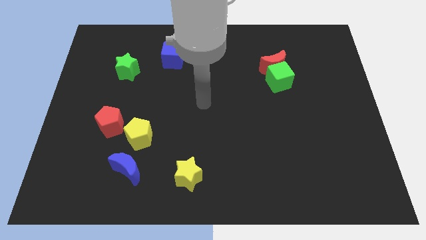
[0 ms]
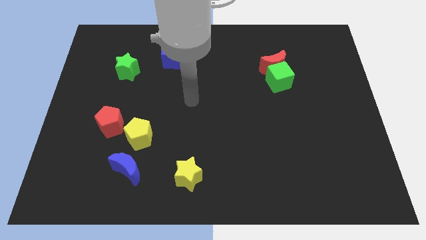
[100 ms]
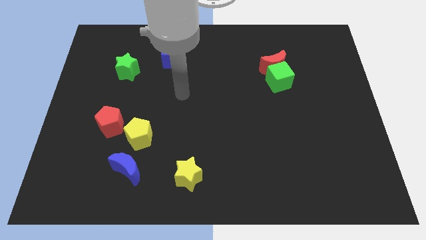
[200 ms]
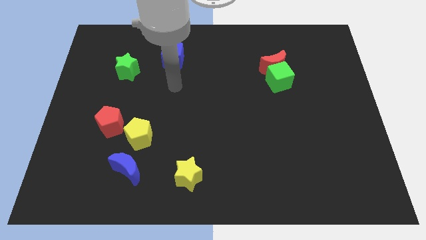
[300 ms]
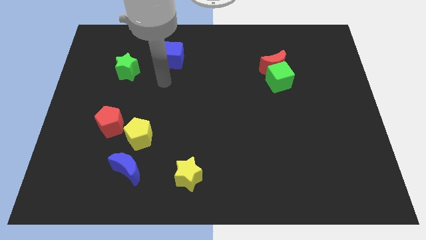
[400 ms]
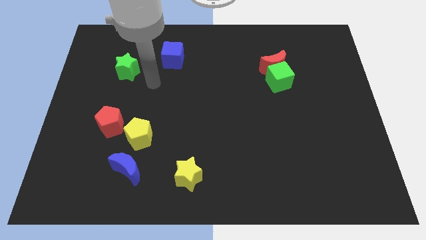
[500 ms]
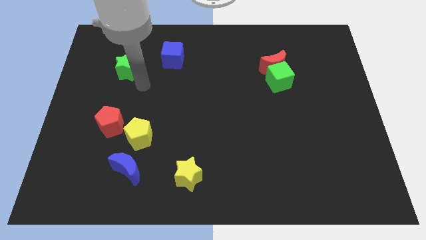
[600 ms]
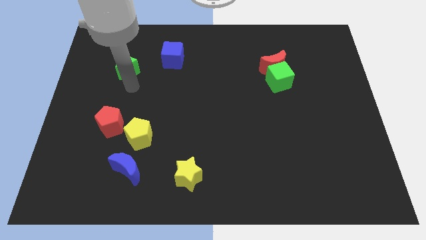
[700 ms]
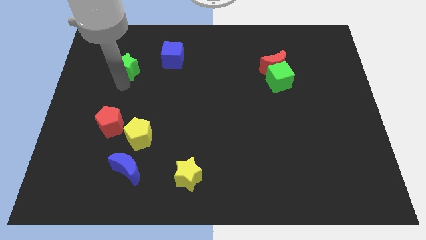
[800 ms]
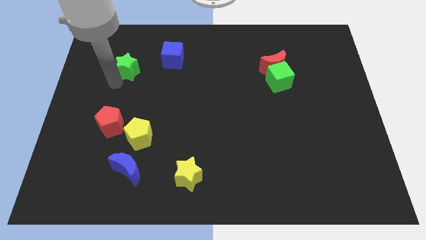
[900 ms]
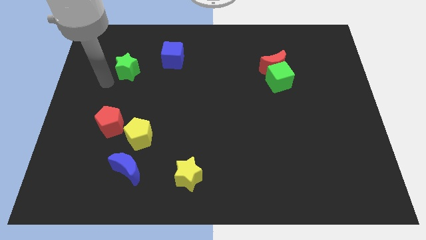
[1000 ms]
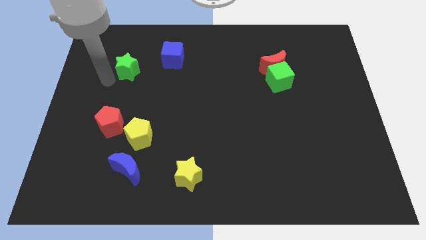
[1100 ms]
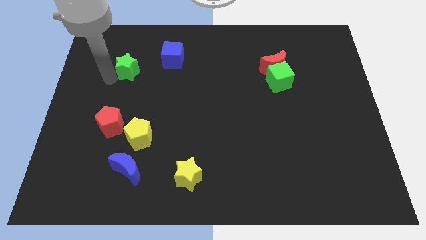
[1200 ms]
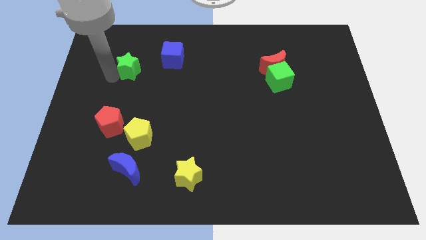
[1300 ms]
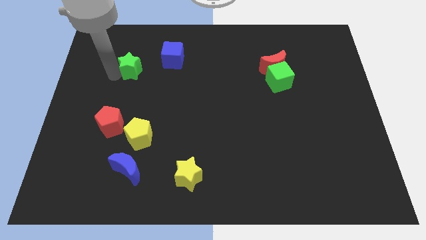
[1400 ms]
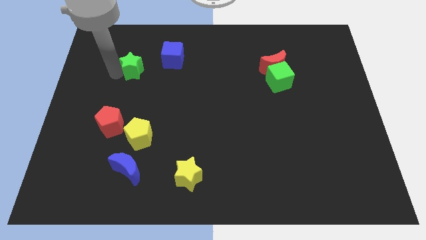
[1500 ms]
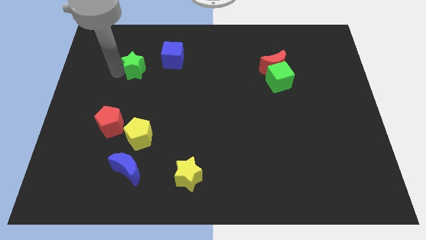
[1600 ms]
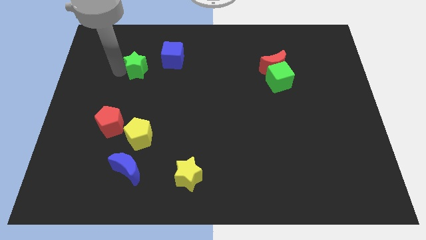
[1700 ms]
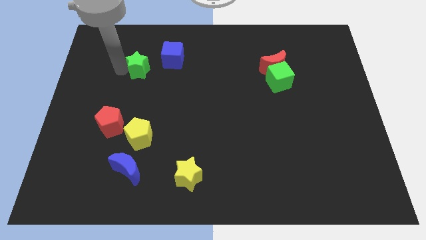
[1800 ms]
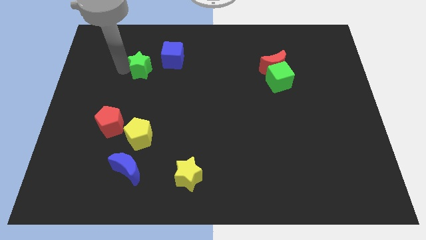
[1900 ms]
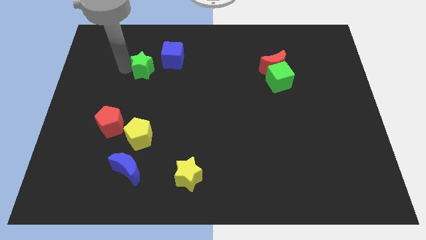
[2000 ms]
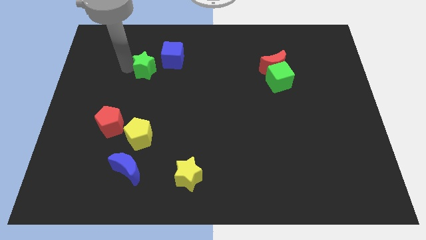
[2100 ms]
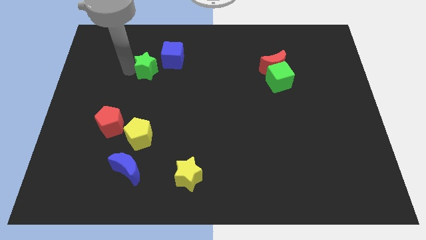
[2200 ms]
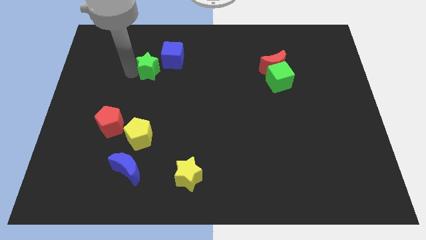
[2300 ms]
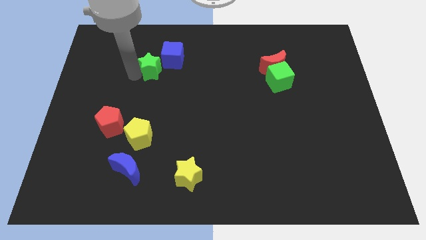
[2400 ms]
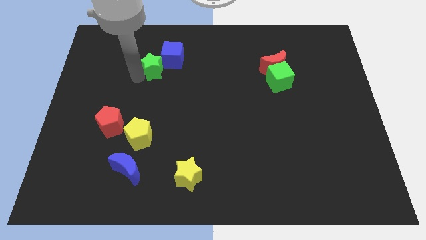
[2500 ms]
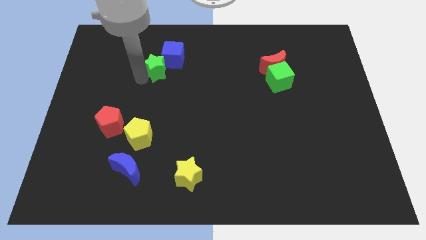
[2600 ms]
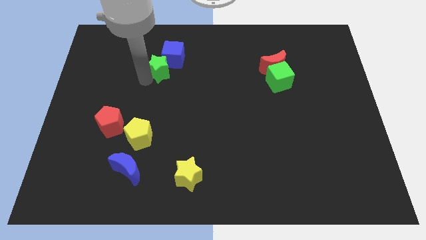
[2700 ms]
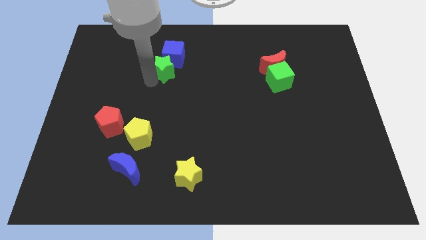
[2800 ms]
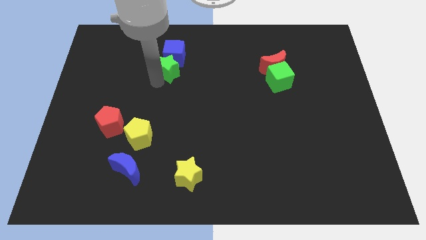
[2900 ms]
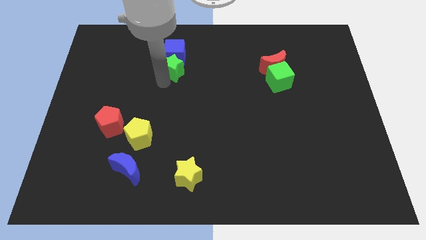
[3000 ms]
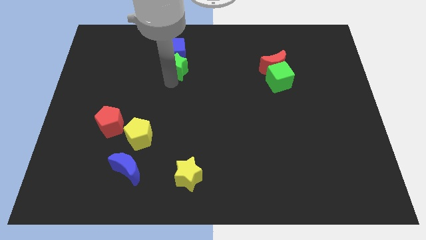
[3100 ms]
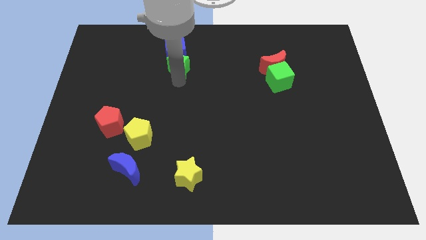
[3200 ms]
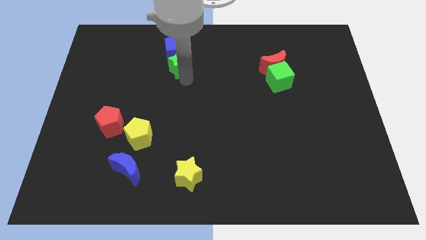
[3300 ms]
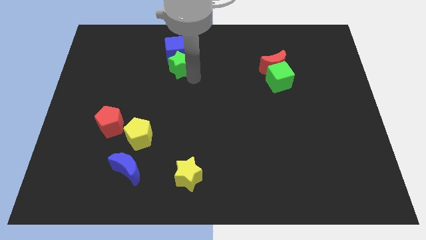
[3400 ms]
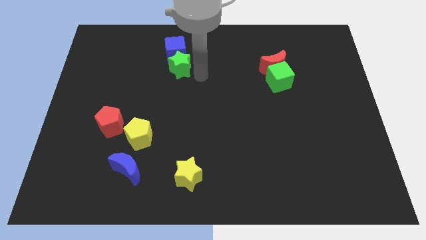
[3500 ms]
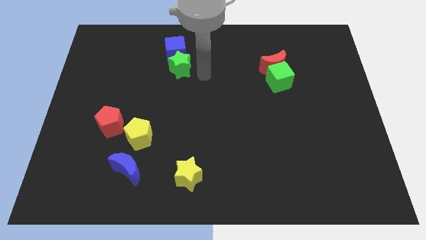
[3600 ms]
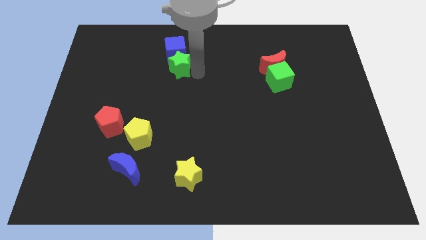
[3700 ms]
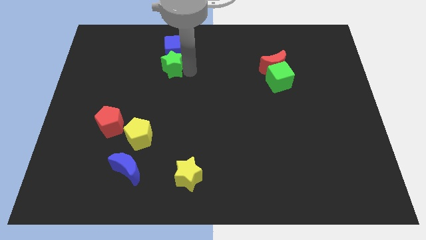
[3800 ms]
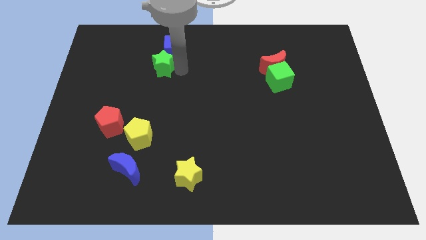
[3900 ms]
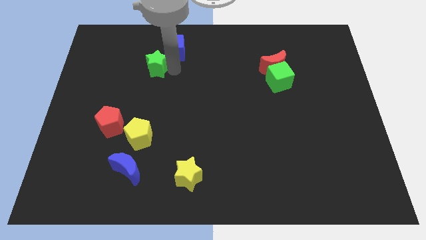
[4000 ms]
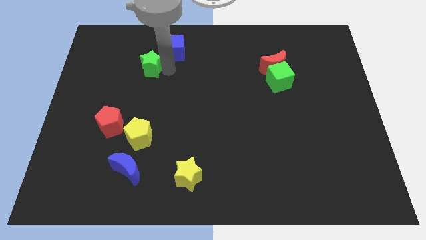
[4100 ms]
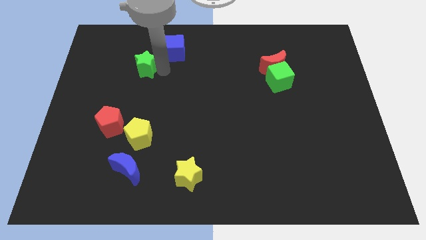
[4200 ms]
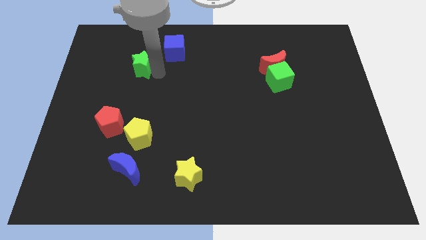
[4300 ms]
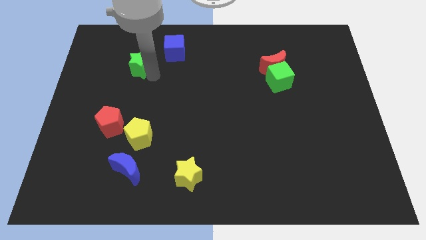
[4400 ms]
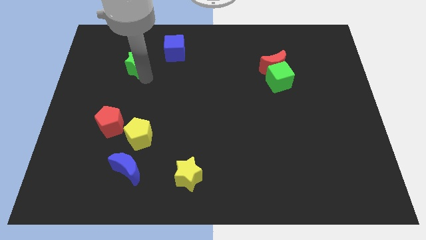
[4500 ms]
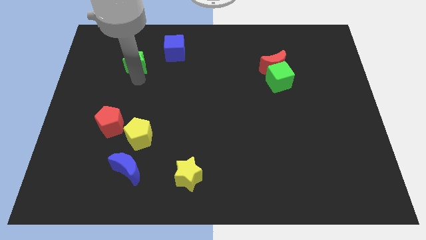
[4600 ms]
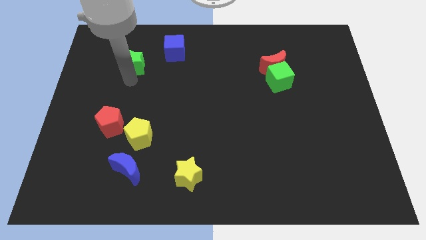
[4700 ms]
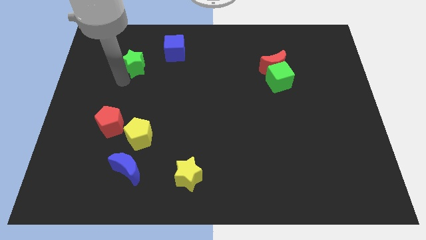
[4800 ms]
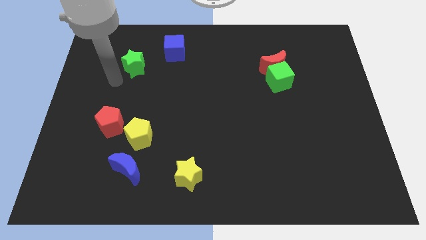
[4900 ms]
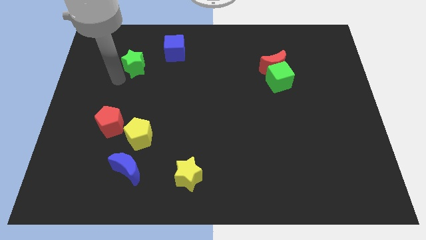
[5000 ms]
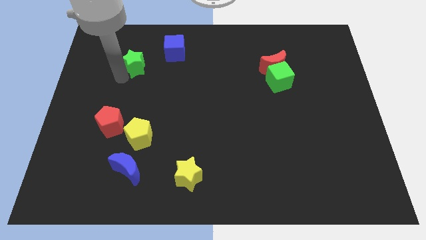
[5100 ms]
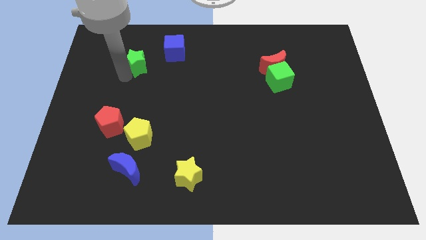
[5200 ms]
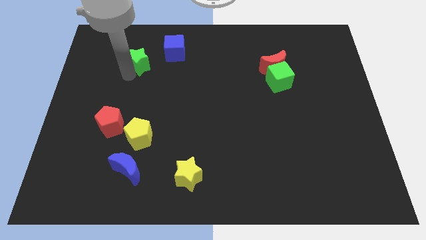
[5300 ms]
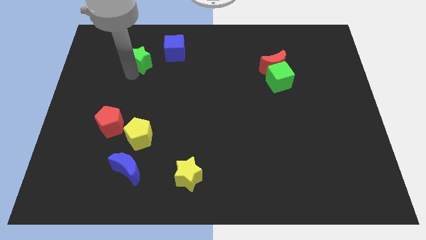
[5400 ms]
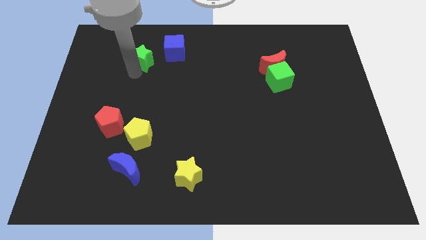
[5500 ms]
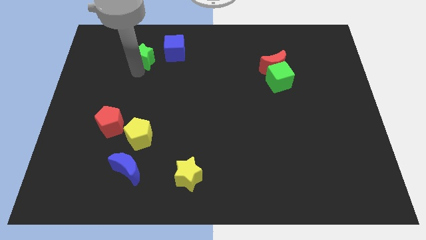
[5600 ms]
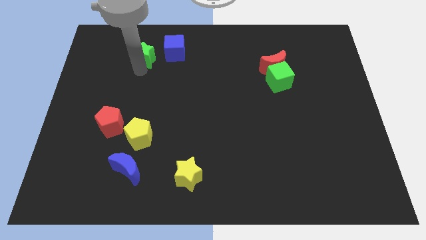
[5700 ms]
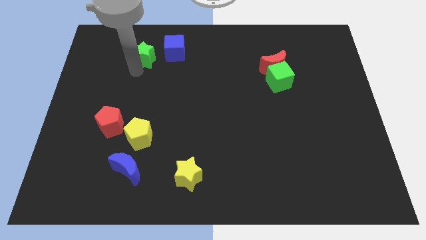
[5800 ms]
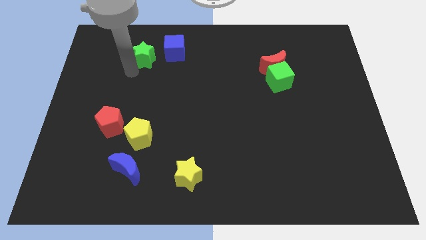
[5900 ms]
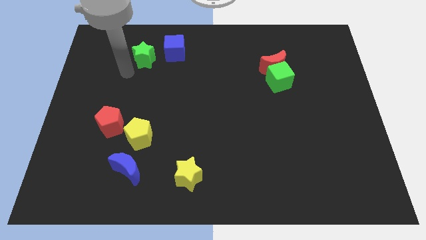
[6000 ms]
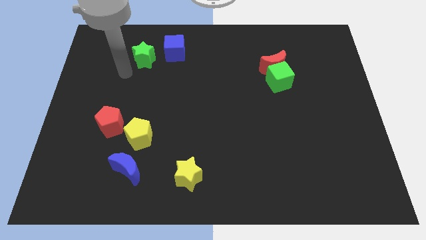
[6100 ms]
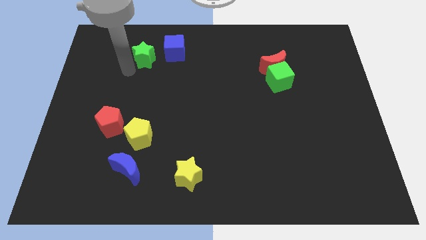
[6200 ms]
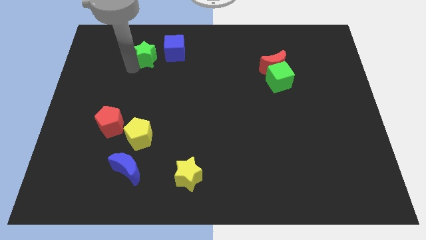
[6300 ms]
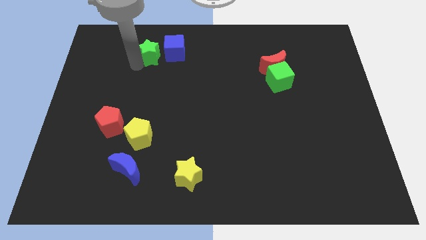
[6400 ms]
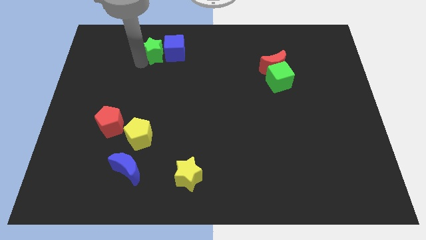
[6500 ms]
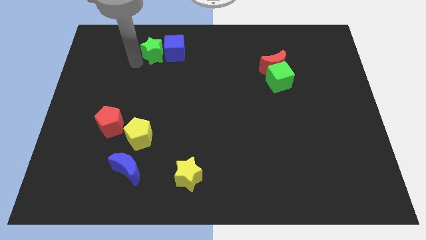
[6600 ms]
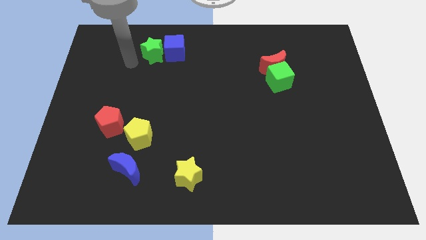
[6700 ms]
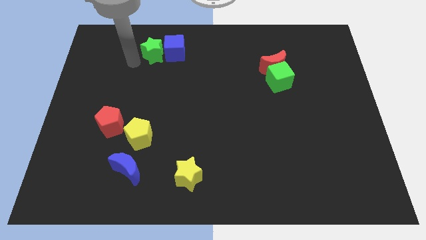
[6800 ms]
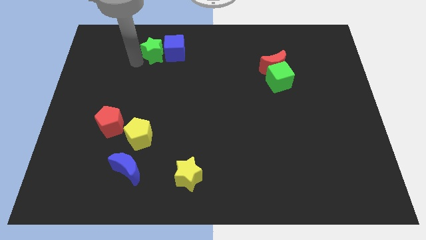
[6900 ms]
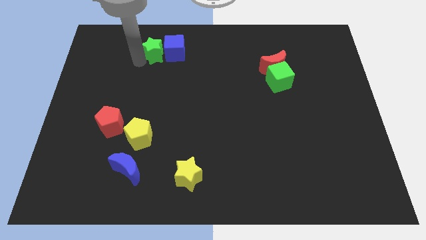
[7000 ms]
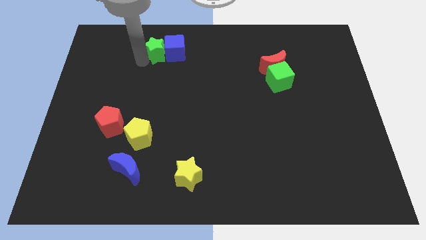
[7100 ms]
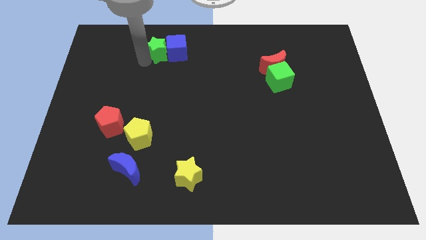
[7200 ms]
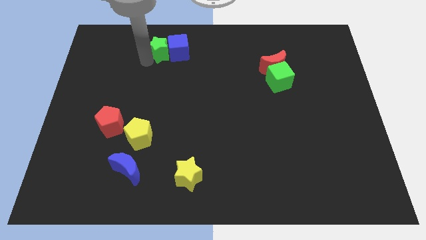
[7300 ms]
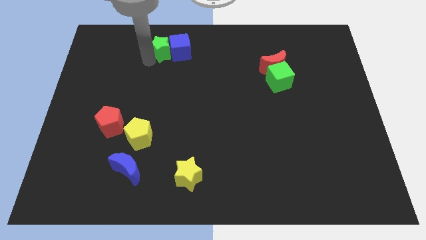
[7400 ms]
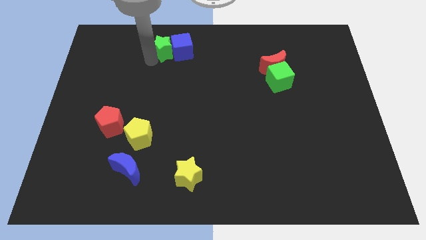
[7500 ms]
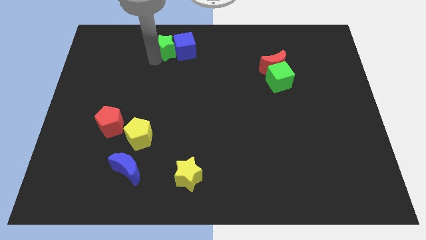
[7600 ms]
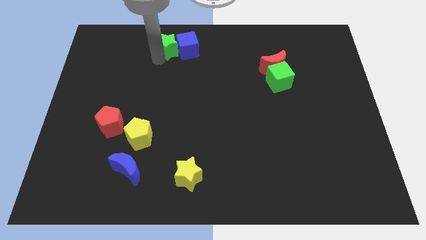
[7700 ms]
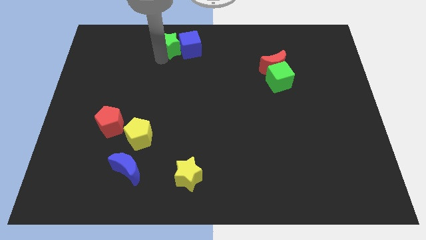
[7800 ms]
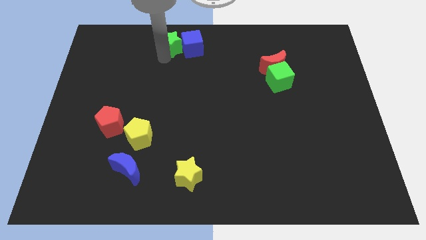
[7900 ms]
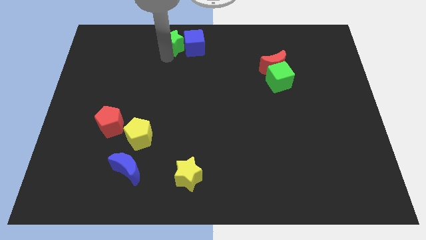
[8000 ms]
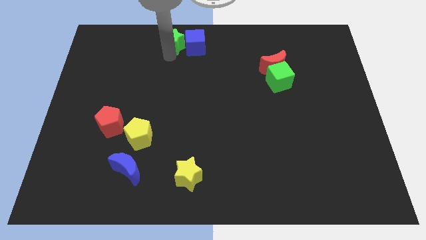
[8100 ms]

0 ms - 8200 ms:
slide the green star to the top side
